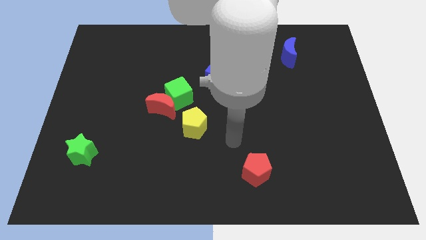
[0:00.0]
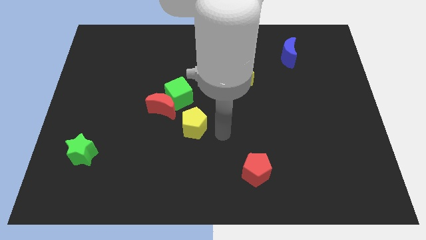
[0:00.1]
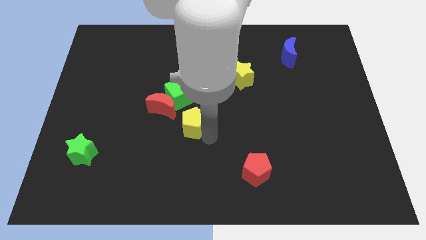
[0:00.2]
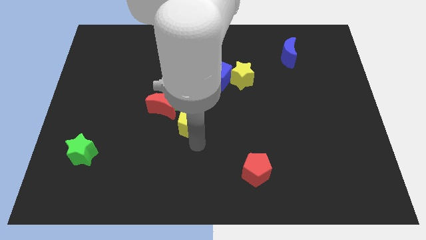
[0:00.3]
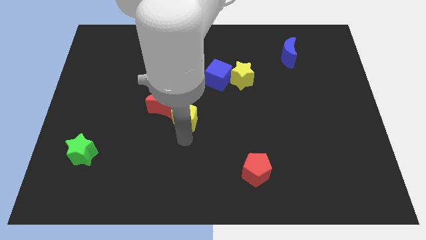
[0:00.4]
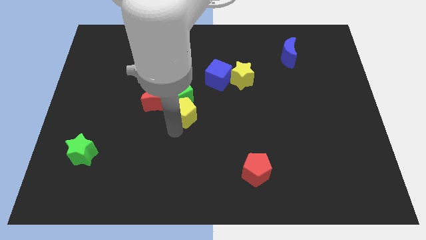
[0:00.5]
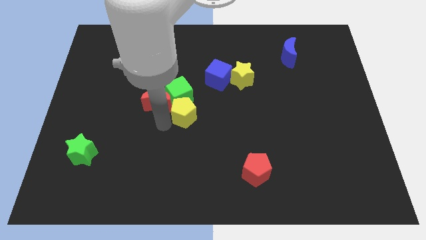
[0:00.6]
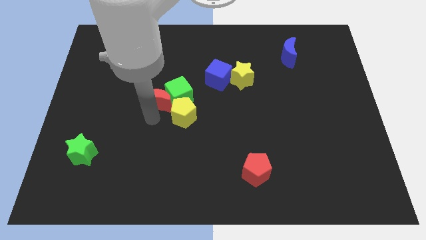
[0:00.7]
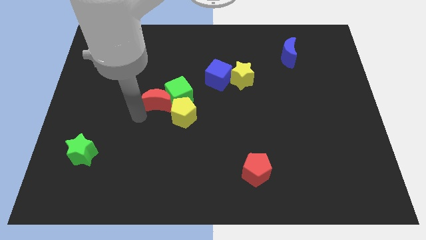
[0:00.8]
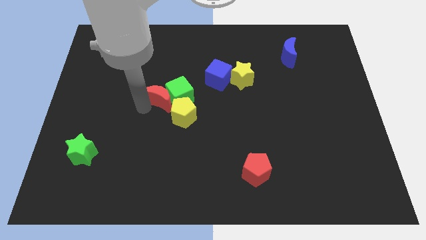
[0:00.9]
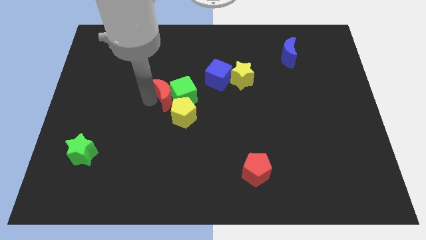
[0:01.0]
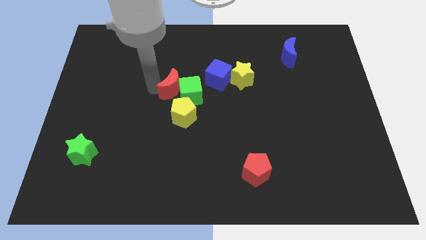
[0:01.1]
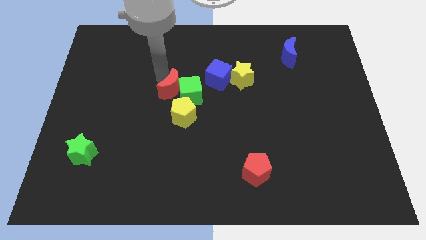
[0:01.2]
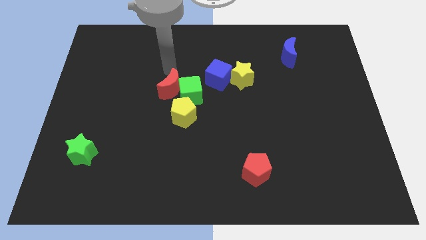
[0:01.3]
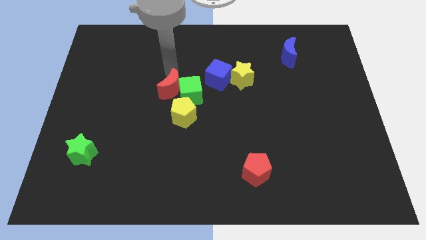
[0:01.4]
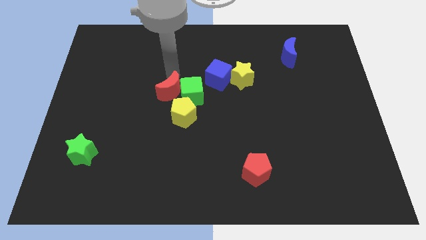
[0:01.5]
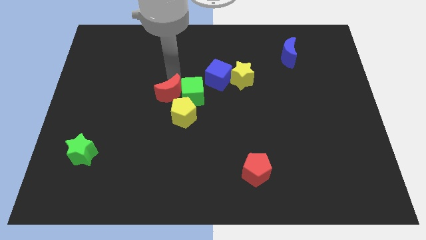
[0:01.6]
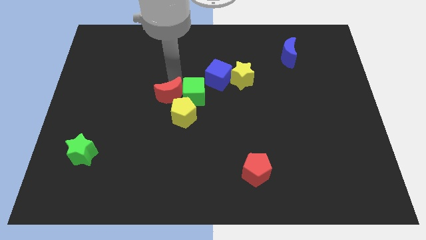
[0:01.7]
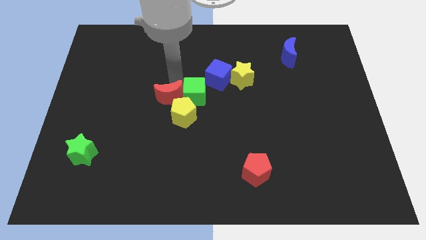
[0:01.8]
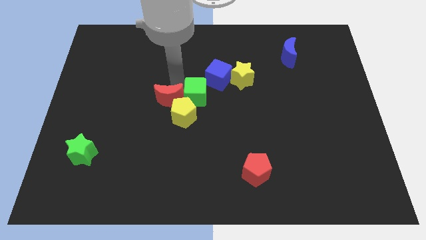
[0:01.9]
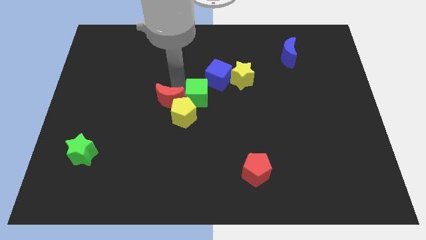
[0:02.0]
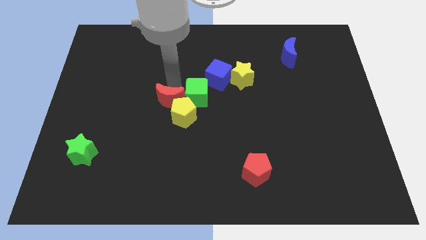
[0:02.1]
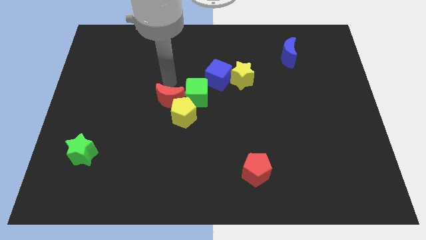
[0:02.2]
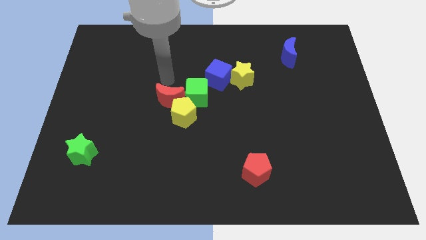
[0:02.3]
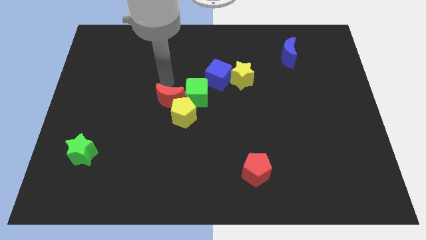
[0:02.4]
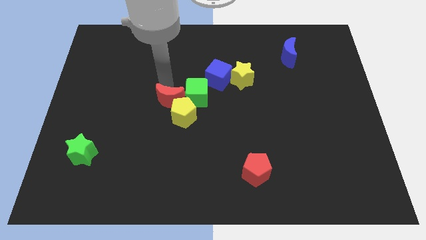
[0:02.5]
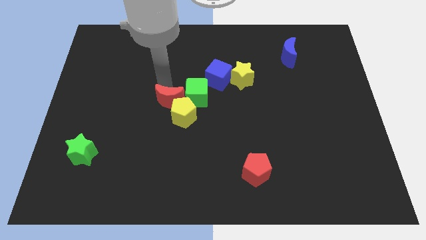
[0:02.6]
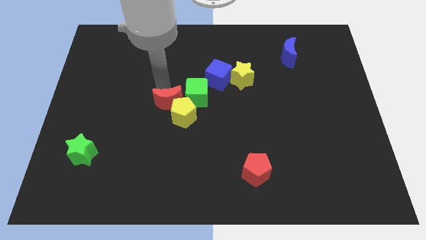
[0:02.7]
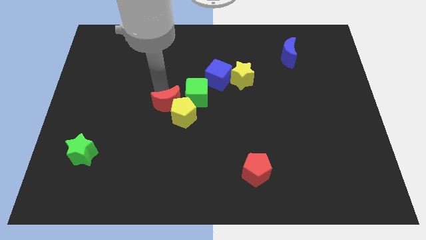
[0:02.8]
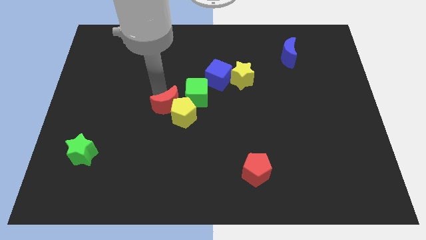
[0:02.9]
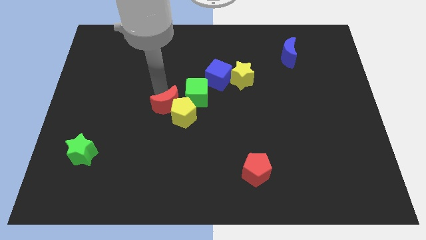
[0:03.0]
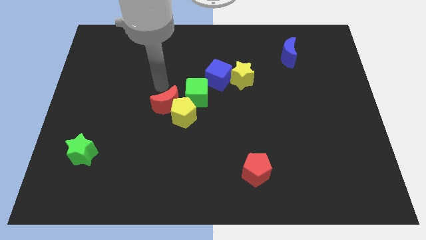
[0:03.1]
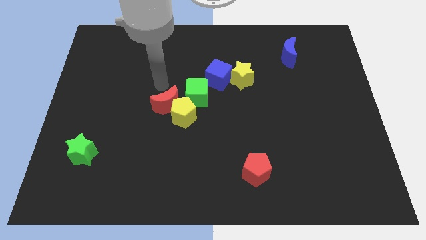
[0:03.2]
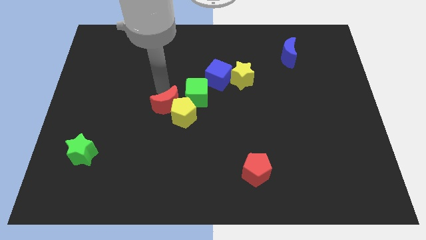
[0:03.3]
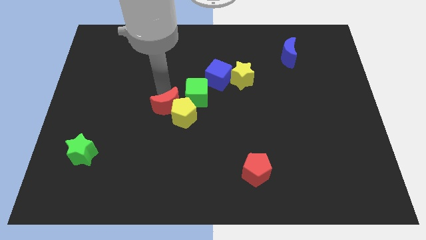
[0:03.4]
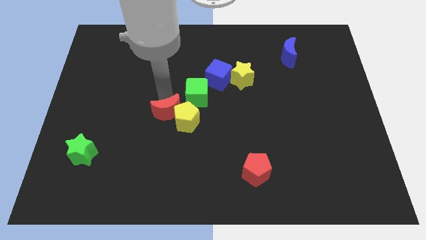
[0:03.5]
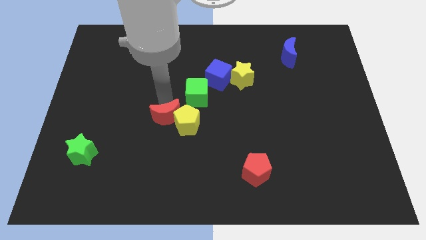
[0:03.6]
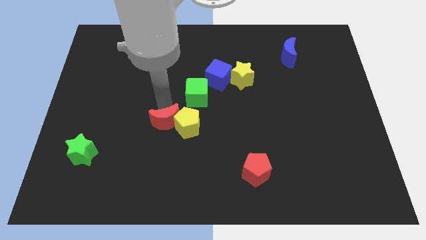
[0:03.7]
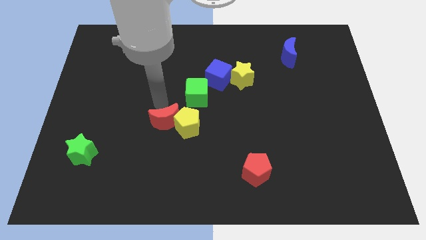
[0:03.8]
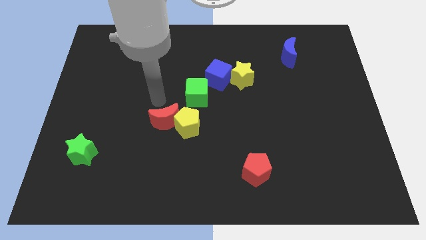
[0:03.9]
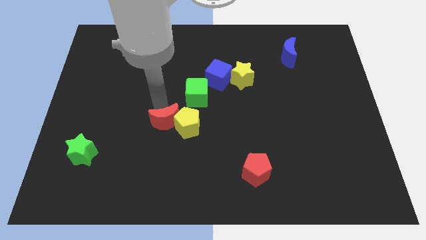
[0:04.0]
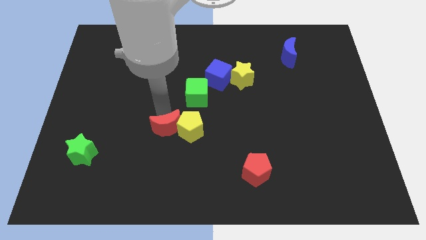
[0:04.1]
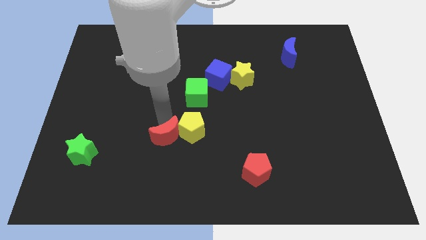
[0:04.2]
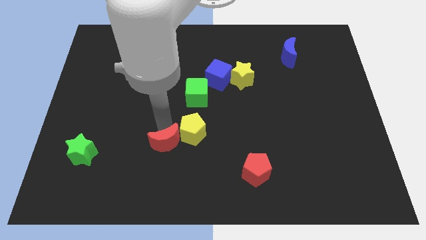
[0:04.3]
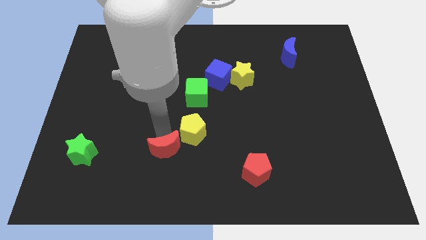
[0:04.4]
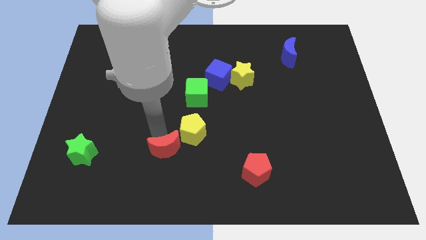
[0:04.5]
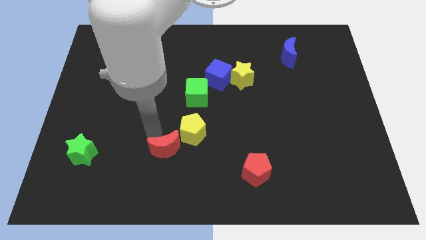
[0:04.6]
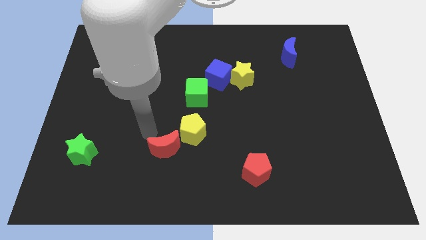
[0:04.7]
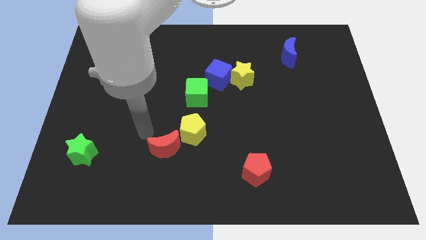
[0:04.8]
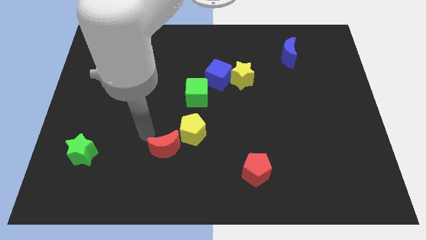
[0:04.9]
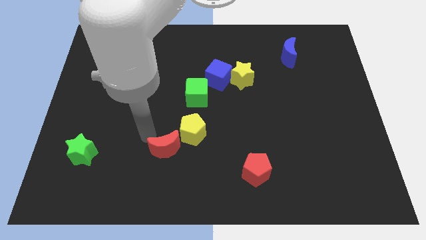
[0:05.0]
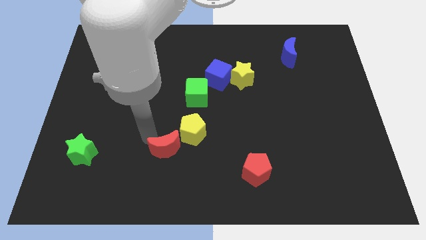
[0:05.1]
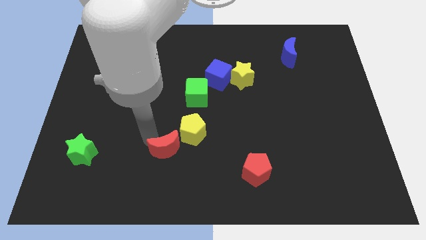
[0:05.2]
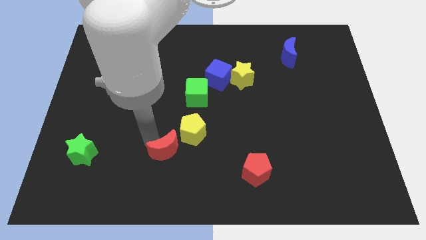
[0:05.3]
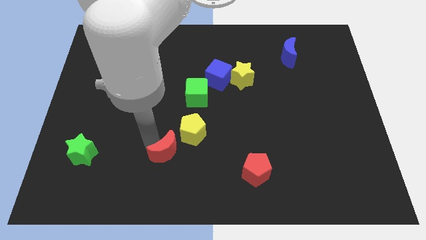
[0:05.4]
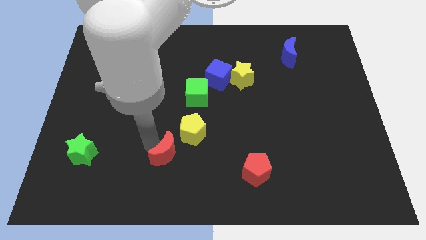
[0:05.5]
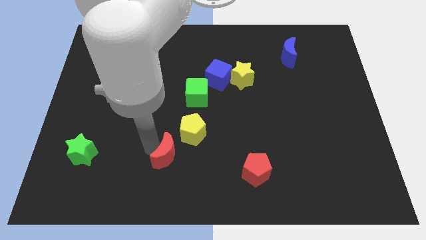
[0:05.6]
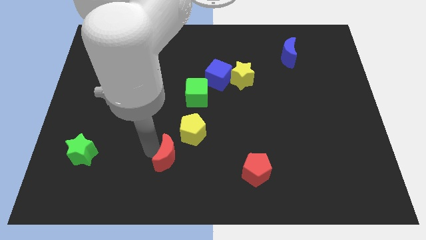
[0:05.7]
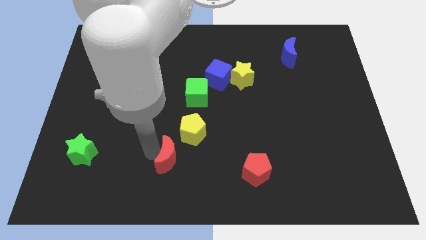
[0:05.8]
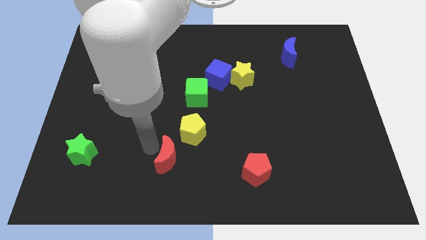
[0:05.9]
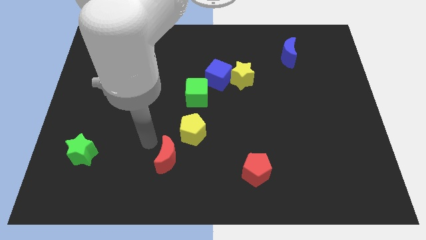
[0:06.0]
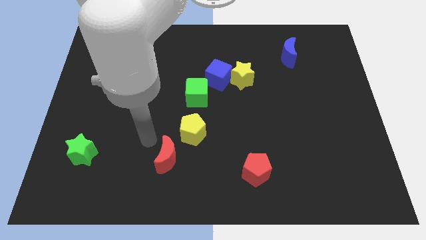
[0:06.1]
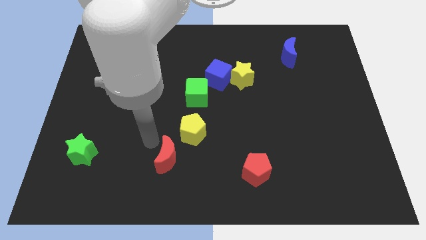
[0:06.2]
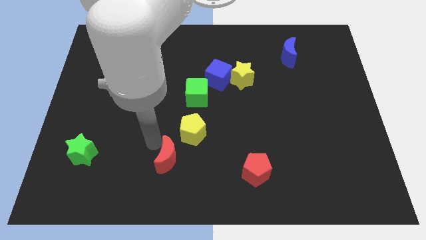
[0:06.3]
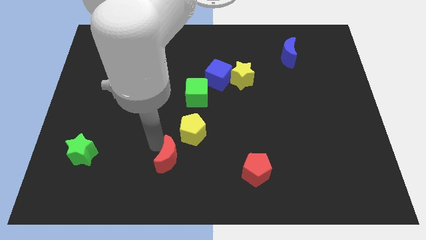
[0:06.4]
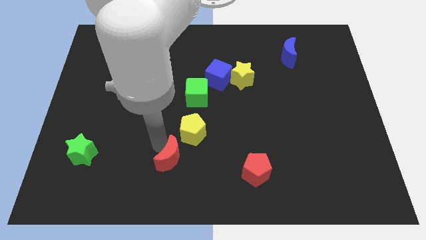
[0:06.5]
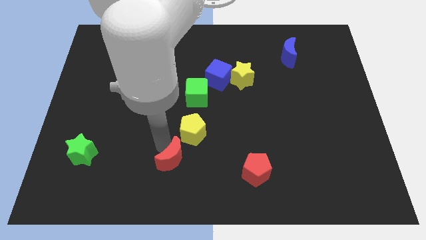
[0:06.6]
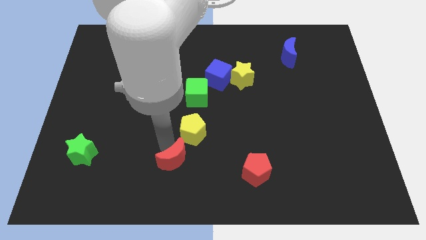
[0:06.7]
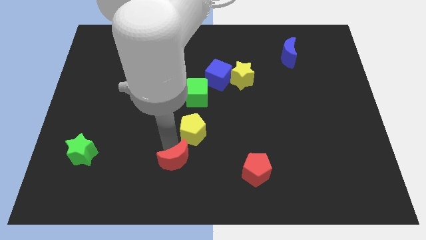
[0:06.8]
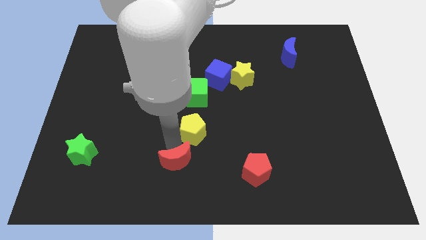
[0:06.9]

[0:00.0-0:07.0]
move the red moon to the bottom side
